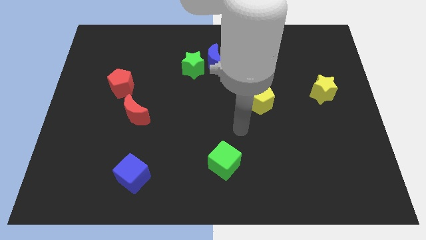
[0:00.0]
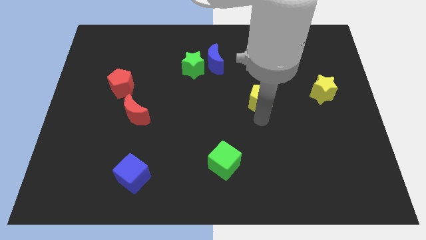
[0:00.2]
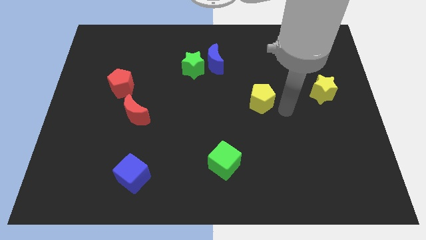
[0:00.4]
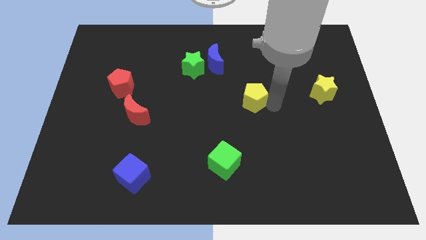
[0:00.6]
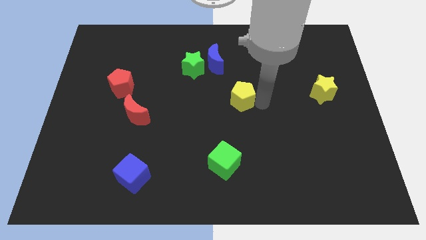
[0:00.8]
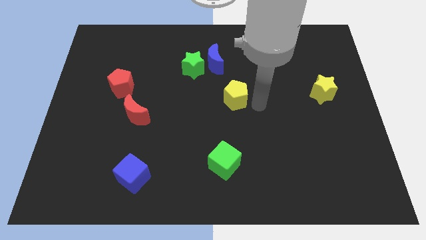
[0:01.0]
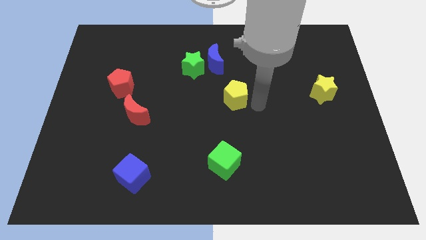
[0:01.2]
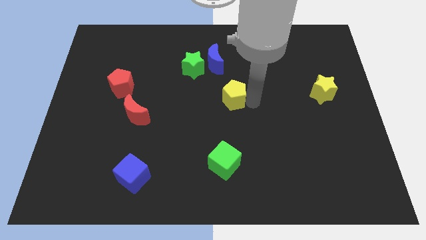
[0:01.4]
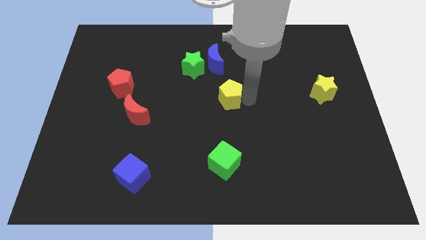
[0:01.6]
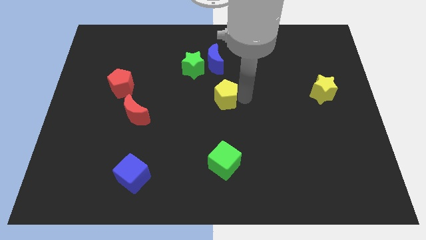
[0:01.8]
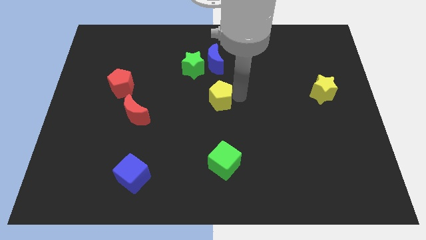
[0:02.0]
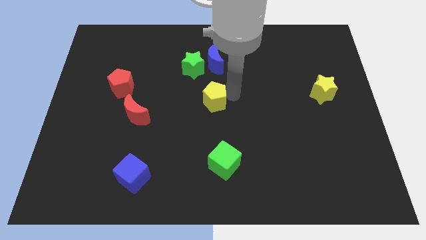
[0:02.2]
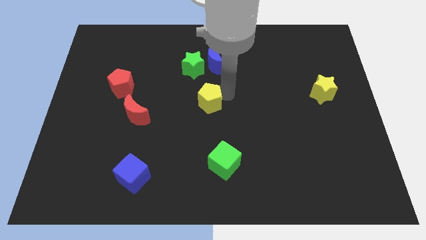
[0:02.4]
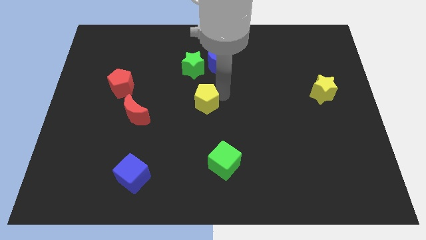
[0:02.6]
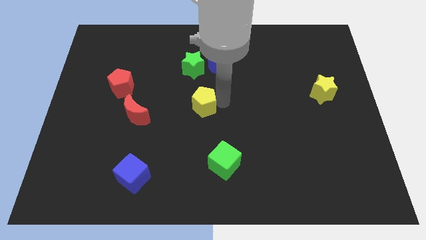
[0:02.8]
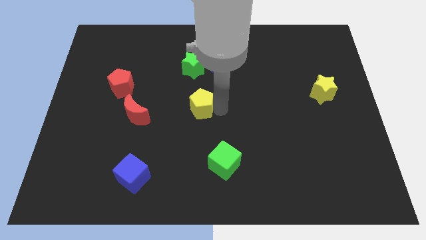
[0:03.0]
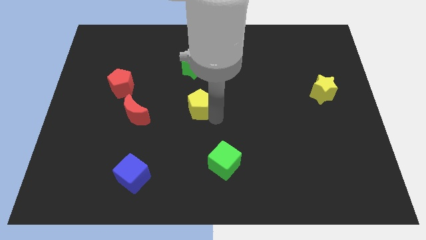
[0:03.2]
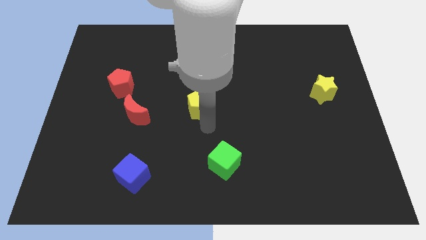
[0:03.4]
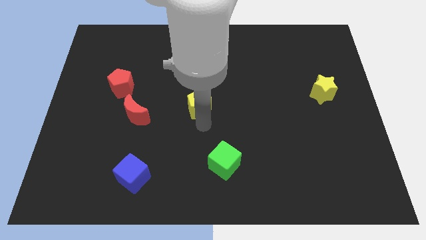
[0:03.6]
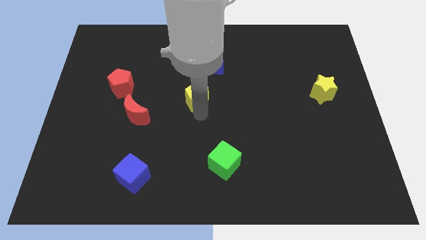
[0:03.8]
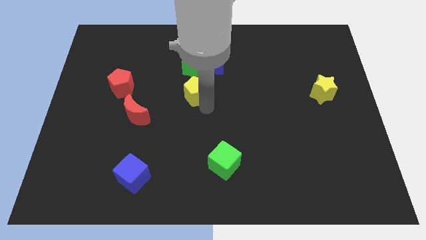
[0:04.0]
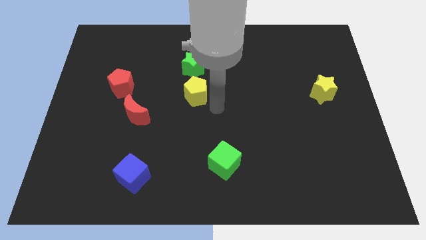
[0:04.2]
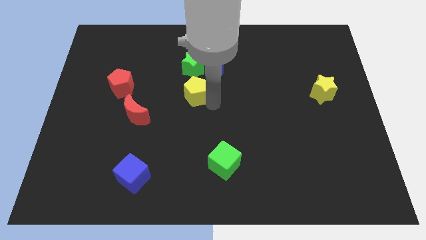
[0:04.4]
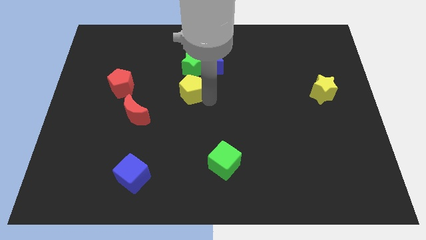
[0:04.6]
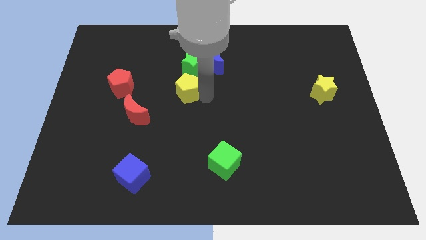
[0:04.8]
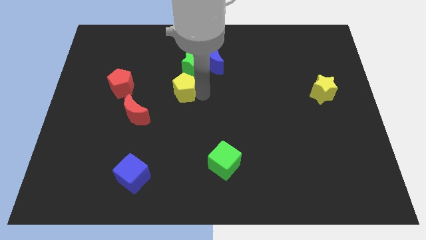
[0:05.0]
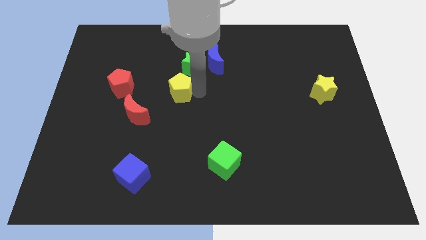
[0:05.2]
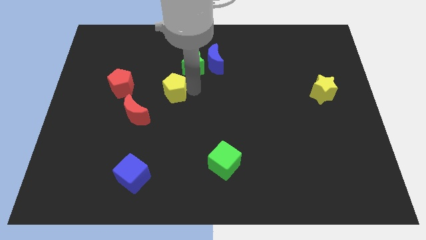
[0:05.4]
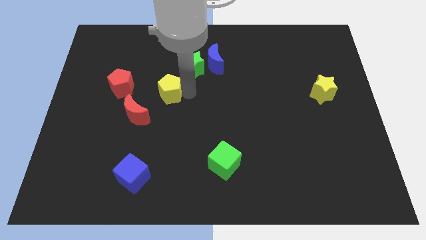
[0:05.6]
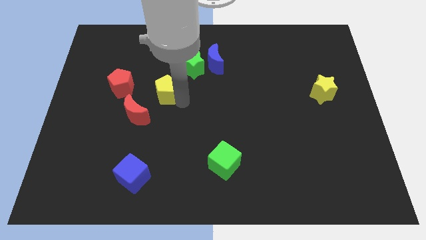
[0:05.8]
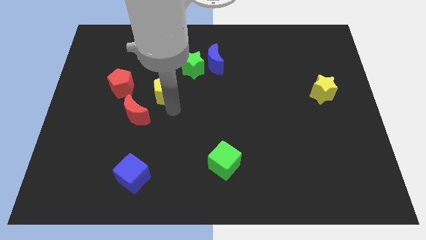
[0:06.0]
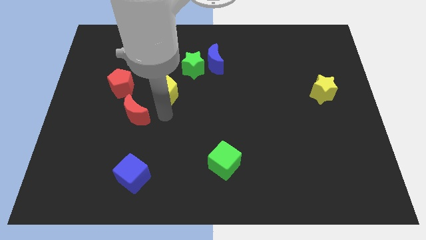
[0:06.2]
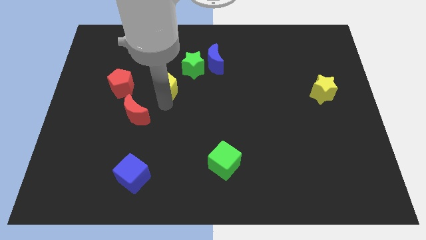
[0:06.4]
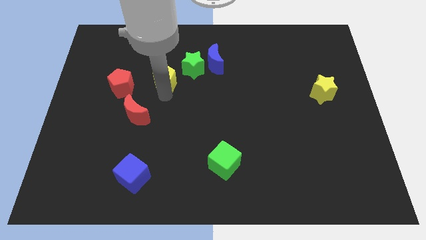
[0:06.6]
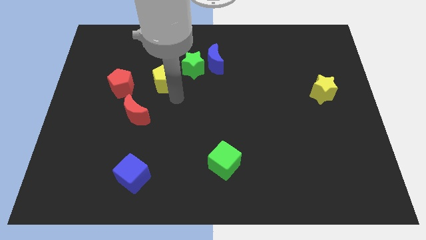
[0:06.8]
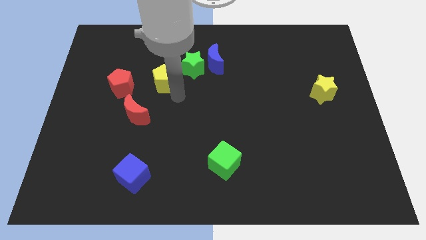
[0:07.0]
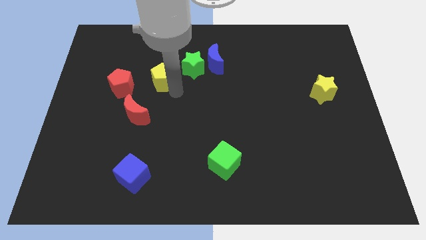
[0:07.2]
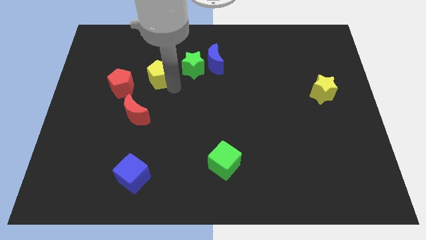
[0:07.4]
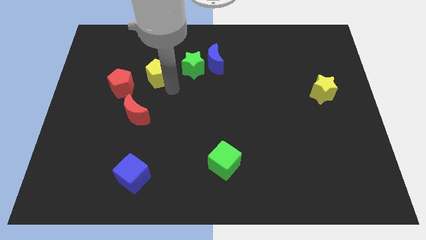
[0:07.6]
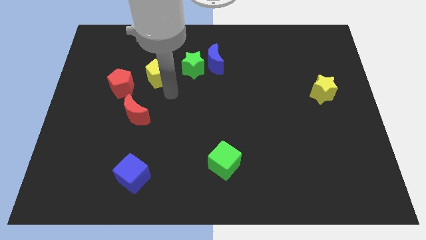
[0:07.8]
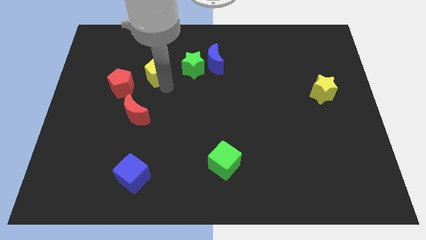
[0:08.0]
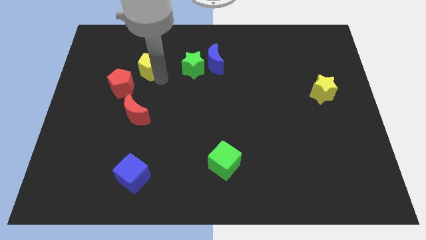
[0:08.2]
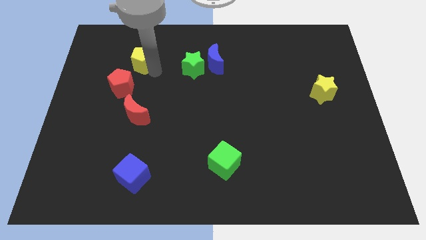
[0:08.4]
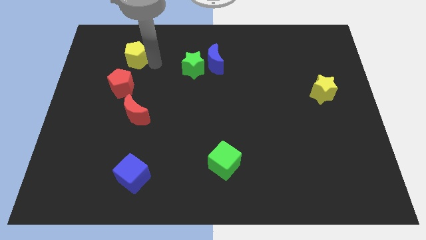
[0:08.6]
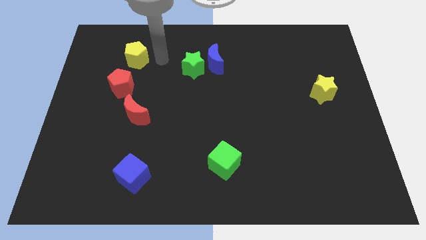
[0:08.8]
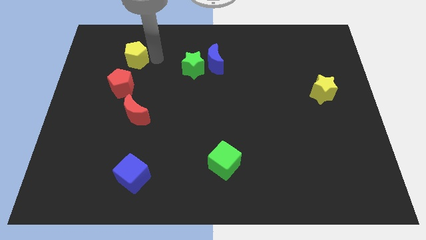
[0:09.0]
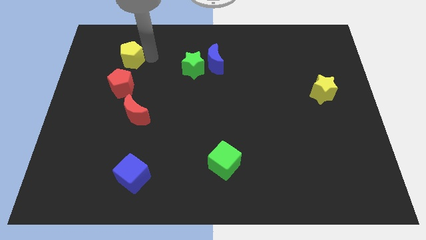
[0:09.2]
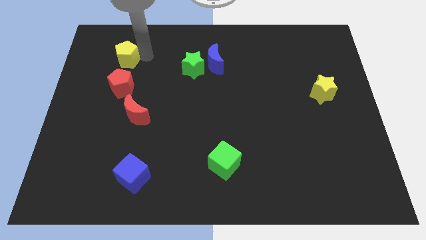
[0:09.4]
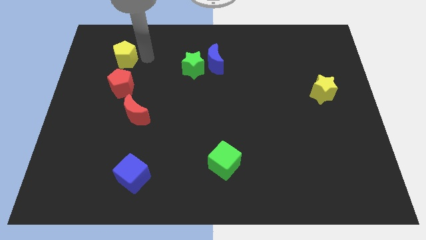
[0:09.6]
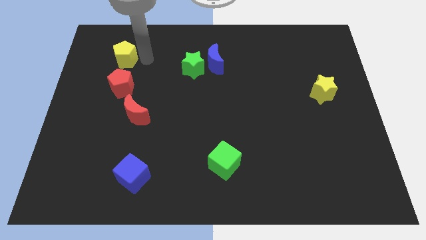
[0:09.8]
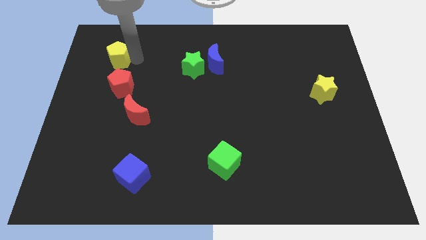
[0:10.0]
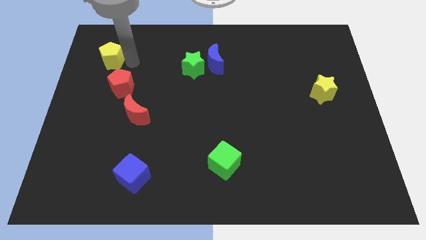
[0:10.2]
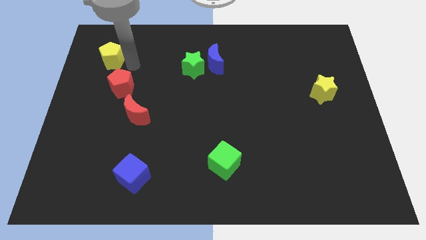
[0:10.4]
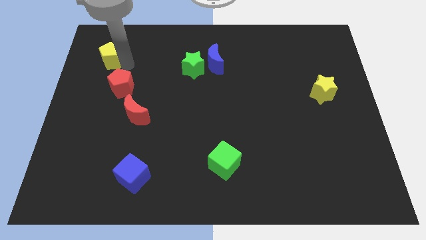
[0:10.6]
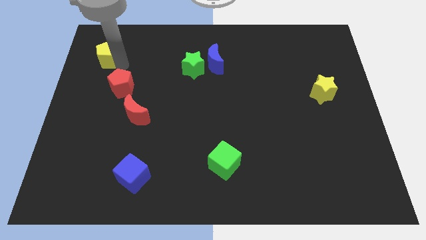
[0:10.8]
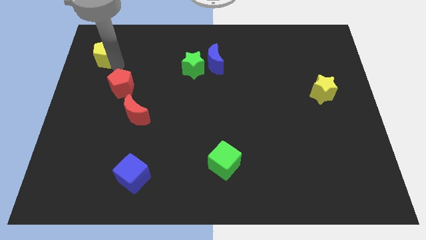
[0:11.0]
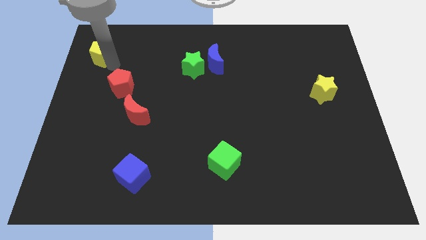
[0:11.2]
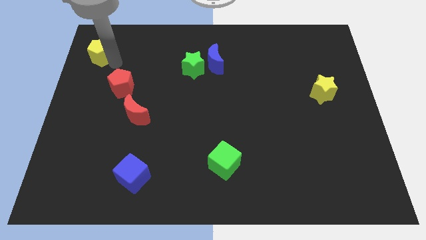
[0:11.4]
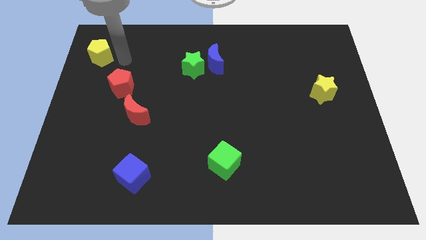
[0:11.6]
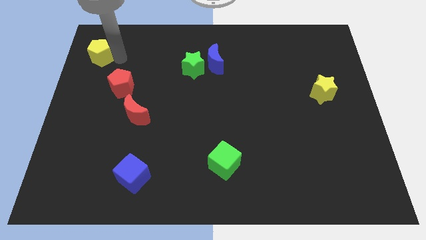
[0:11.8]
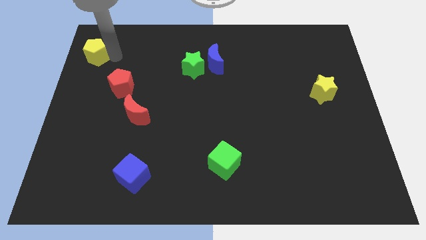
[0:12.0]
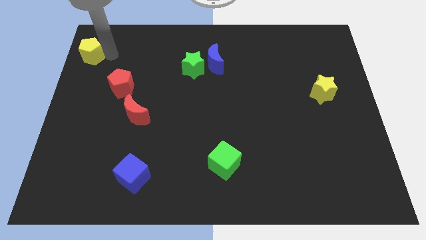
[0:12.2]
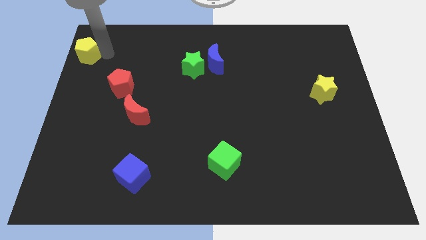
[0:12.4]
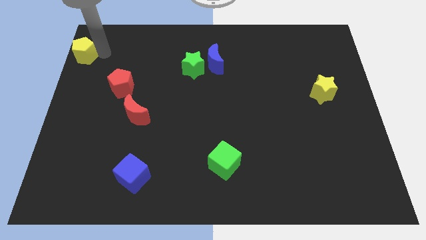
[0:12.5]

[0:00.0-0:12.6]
slide the yellow pentagon to the top left
